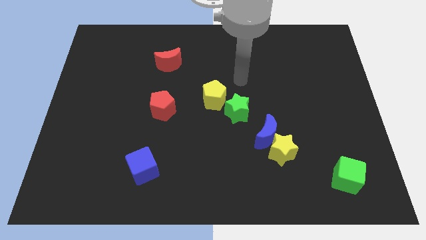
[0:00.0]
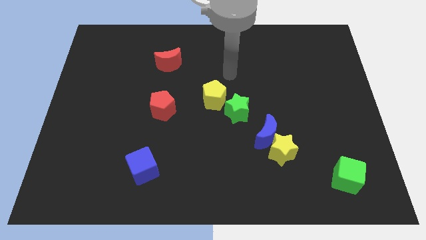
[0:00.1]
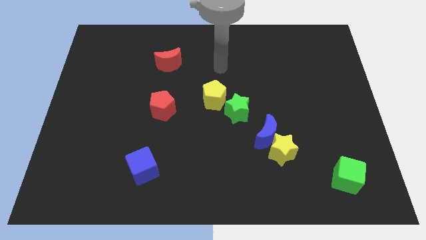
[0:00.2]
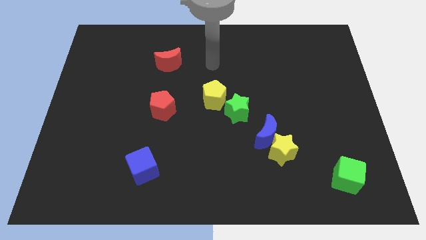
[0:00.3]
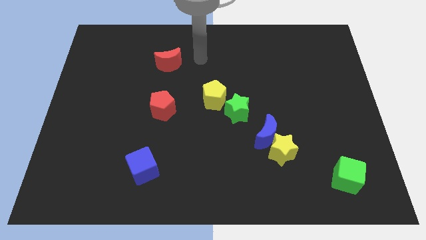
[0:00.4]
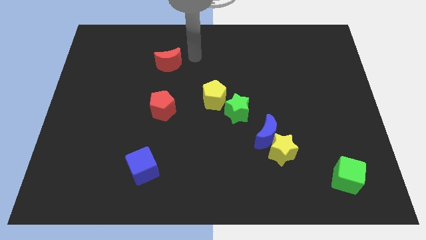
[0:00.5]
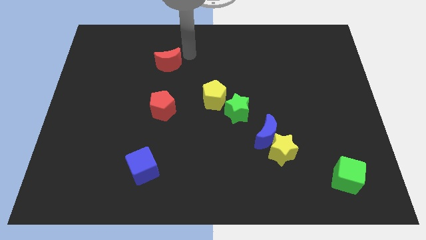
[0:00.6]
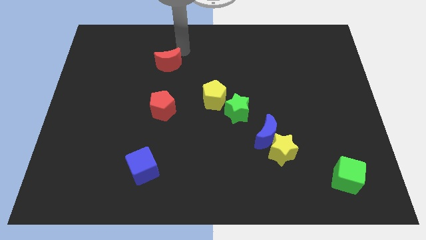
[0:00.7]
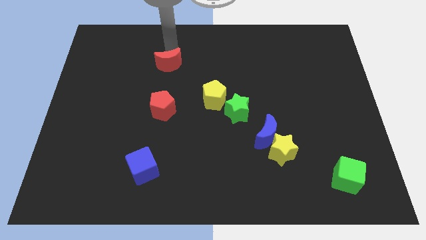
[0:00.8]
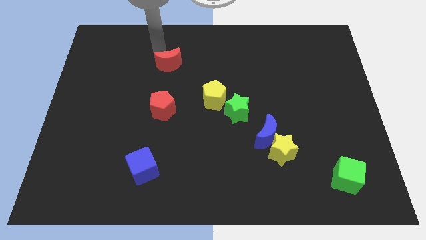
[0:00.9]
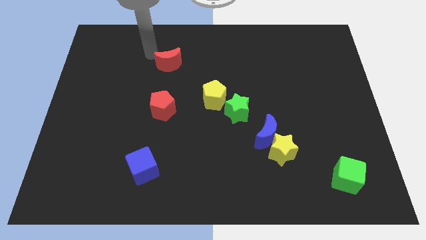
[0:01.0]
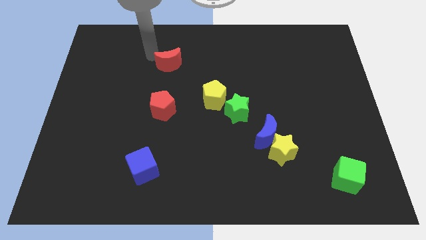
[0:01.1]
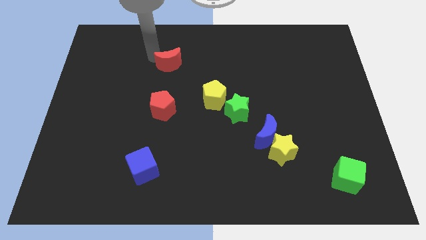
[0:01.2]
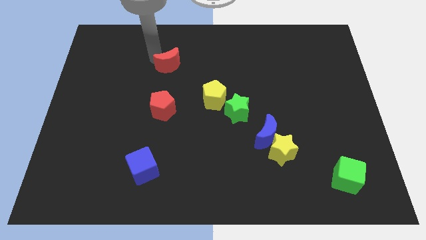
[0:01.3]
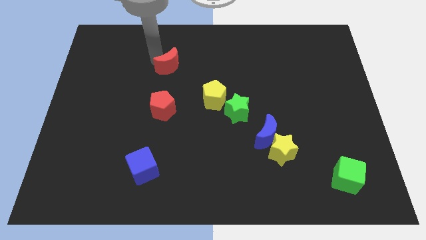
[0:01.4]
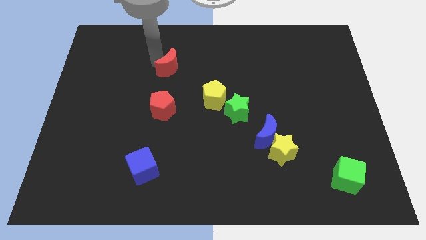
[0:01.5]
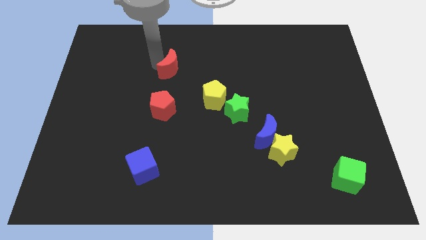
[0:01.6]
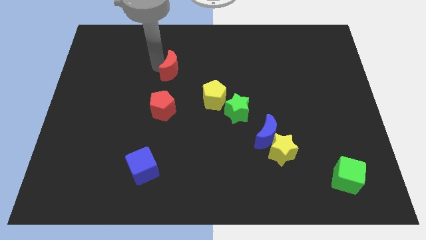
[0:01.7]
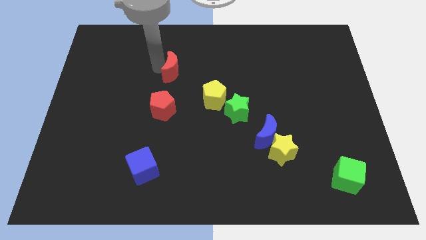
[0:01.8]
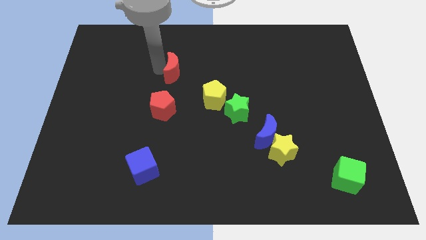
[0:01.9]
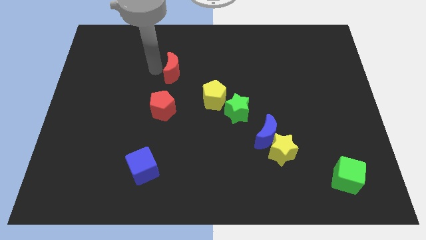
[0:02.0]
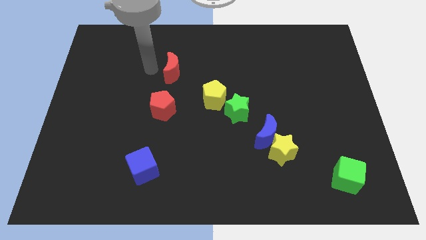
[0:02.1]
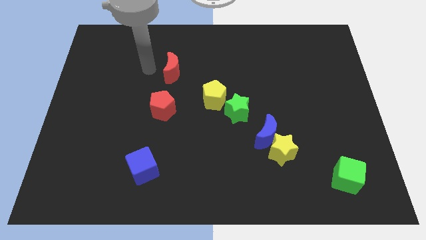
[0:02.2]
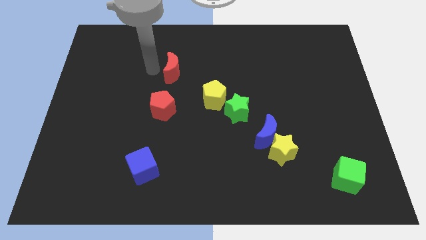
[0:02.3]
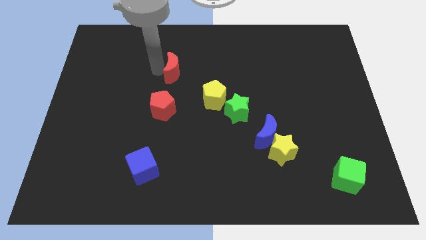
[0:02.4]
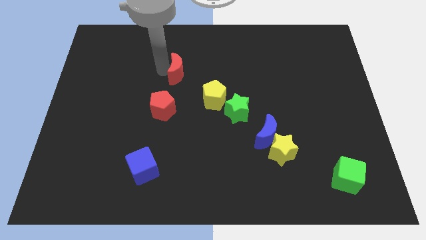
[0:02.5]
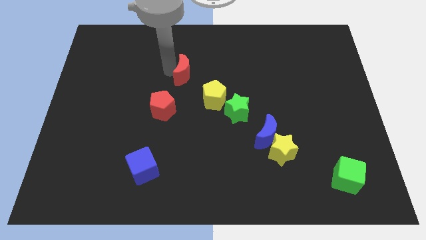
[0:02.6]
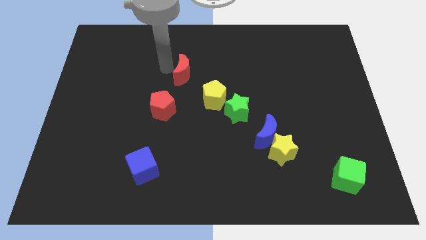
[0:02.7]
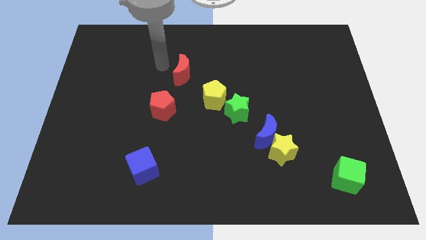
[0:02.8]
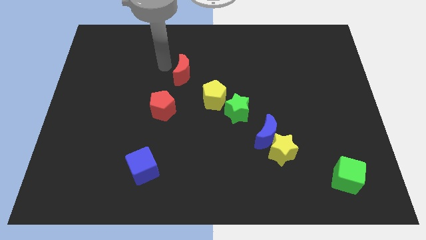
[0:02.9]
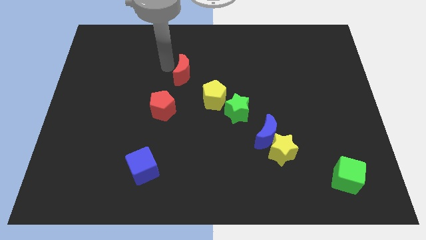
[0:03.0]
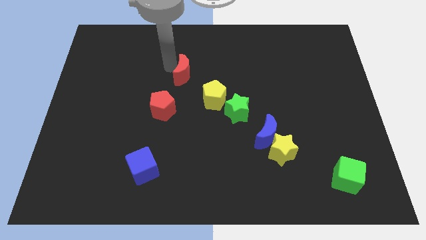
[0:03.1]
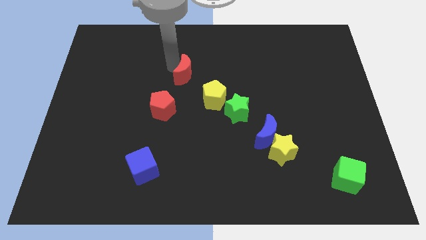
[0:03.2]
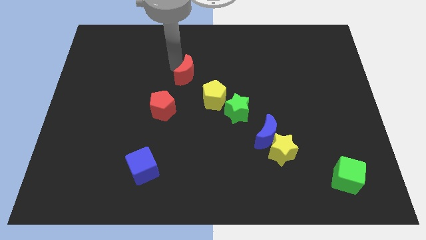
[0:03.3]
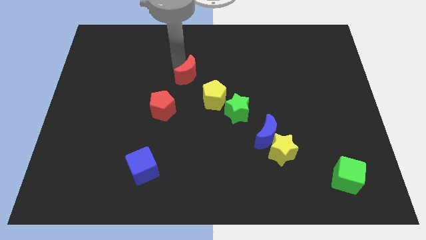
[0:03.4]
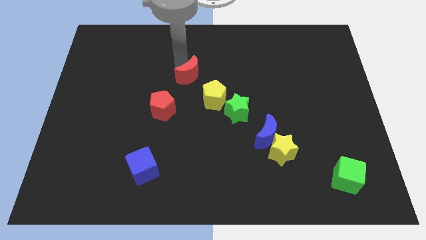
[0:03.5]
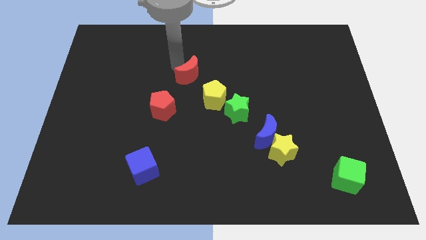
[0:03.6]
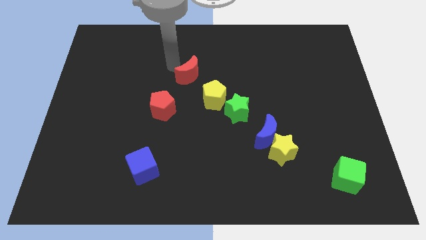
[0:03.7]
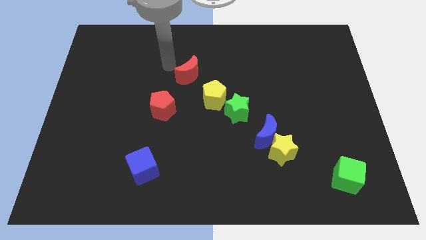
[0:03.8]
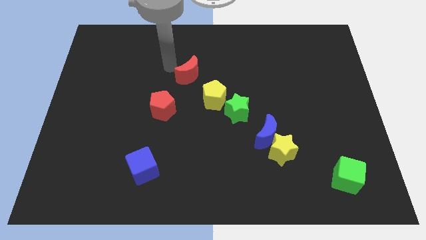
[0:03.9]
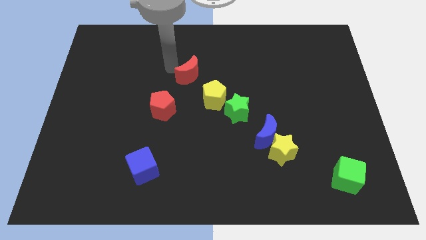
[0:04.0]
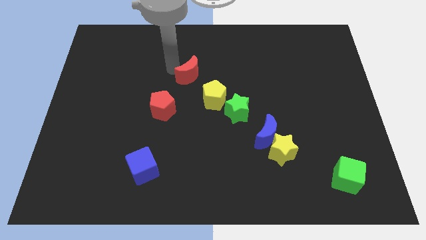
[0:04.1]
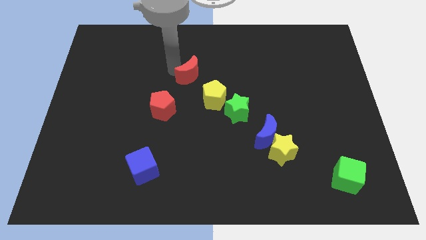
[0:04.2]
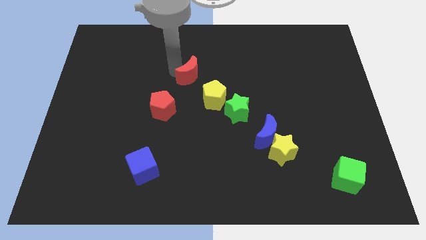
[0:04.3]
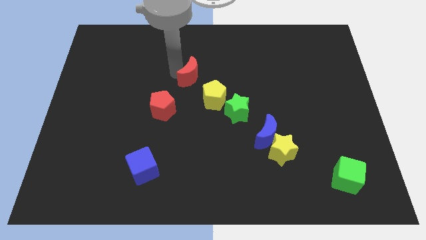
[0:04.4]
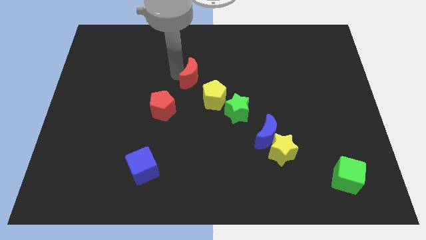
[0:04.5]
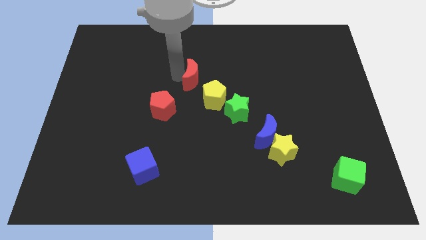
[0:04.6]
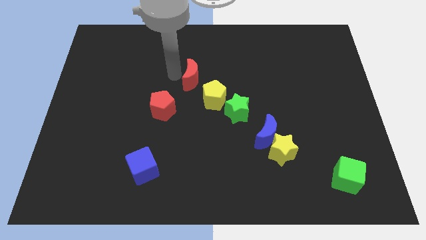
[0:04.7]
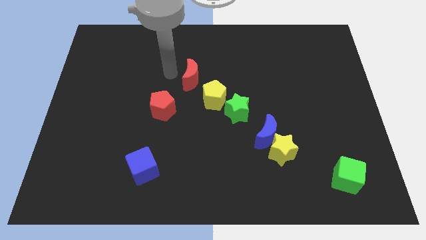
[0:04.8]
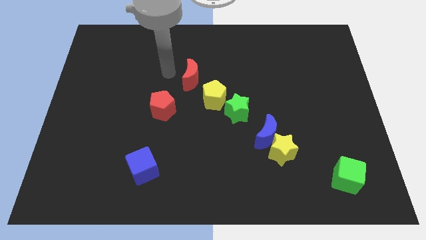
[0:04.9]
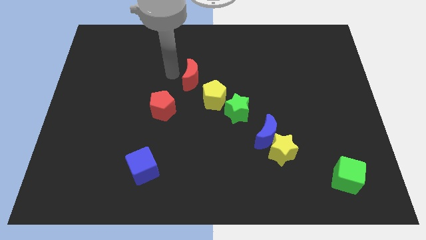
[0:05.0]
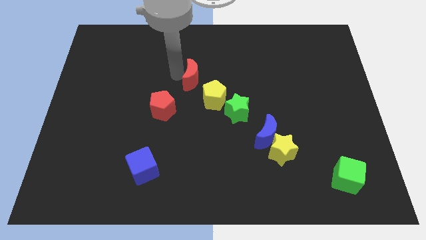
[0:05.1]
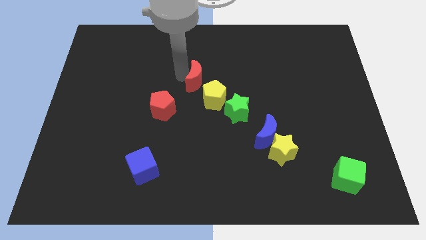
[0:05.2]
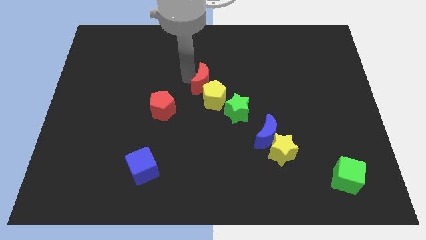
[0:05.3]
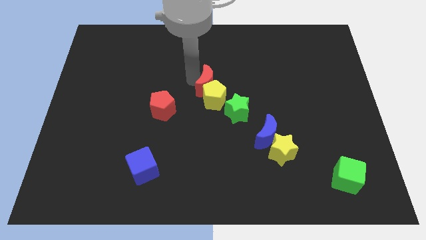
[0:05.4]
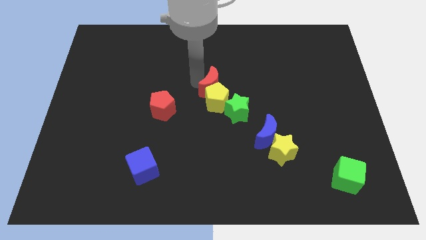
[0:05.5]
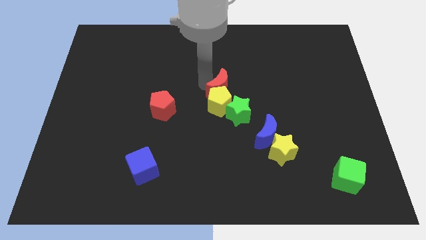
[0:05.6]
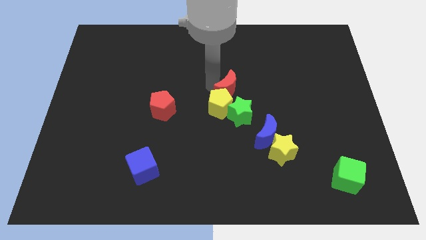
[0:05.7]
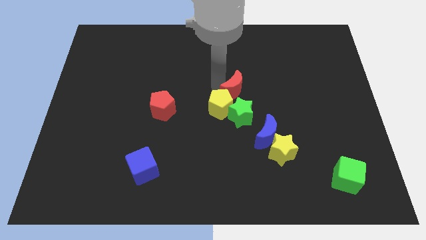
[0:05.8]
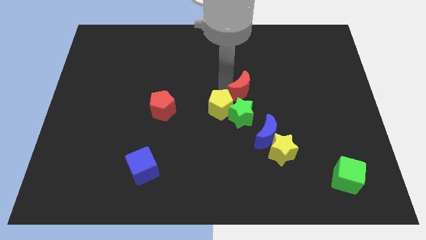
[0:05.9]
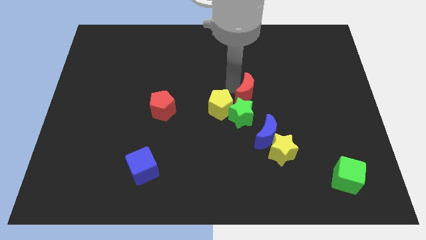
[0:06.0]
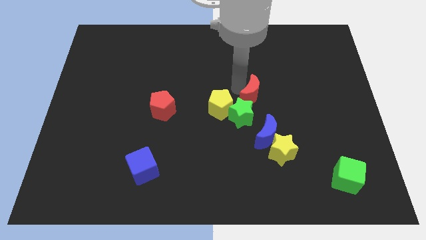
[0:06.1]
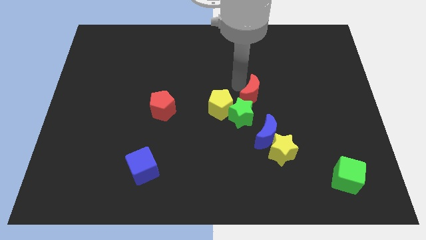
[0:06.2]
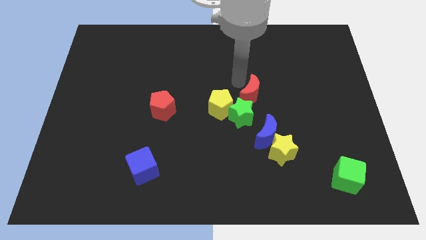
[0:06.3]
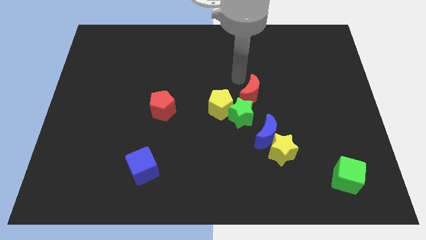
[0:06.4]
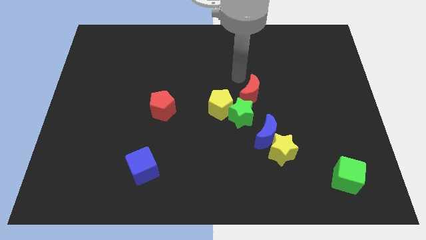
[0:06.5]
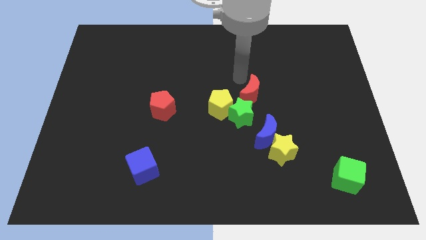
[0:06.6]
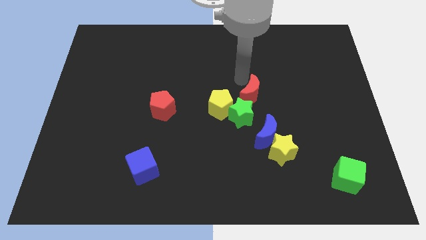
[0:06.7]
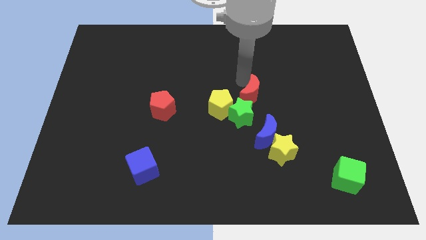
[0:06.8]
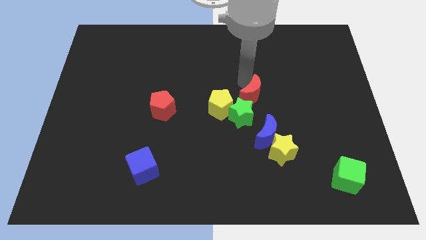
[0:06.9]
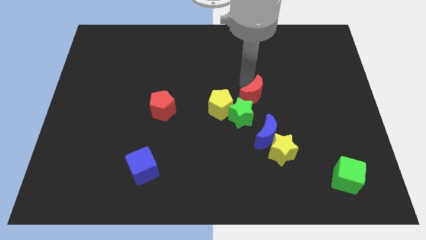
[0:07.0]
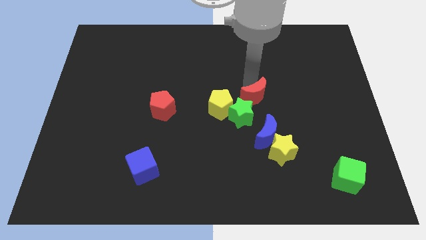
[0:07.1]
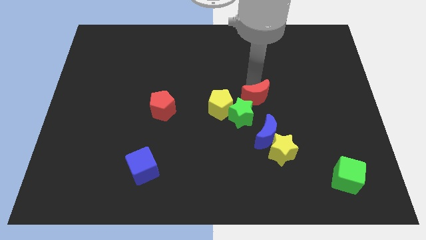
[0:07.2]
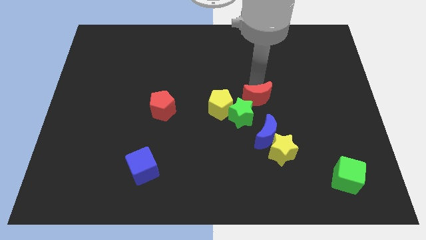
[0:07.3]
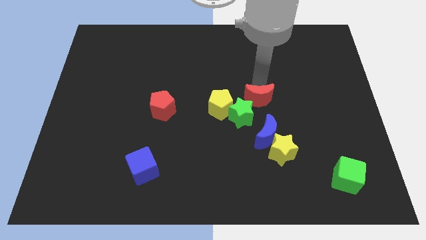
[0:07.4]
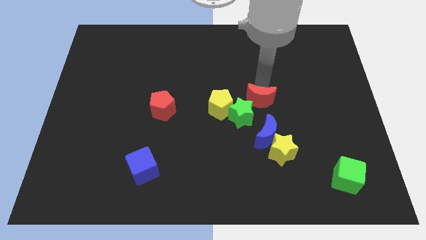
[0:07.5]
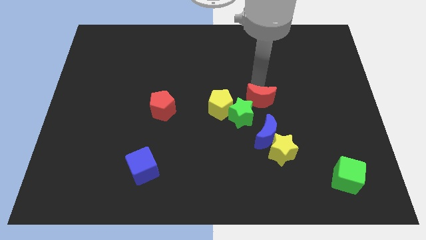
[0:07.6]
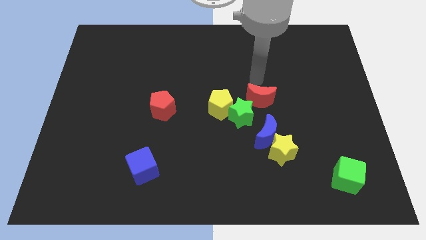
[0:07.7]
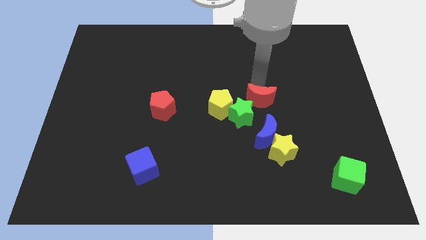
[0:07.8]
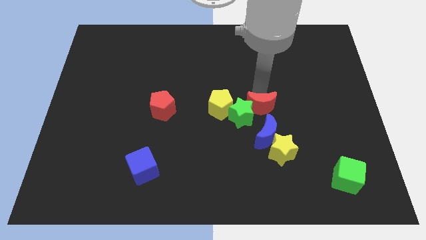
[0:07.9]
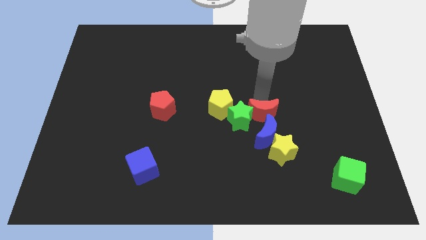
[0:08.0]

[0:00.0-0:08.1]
push the red moon towards the blue moon
